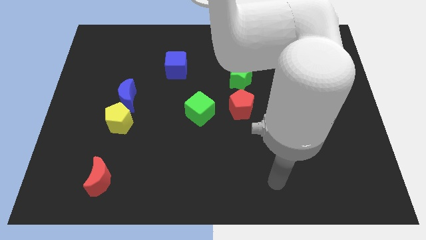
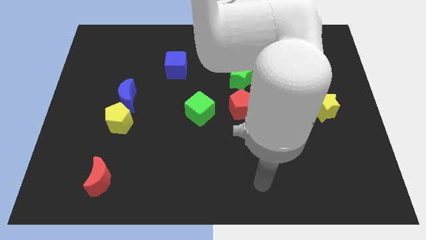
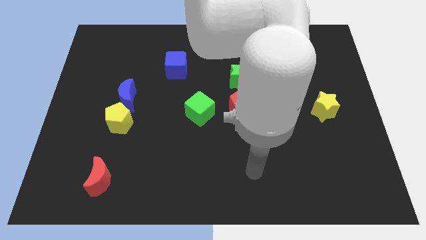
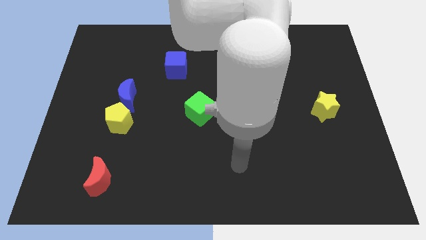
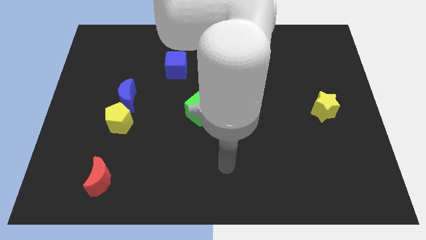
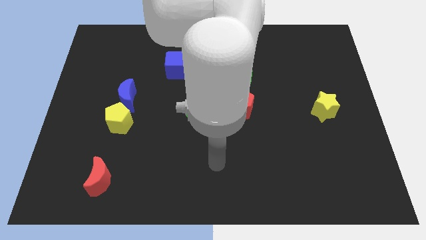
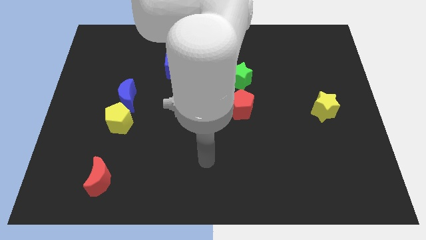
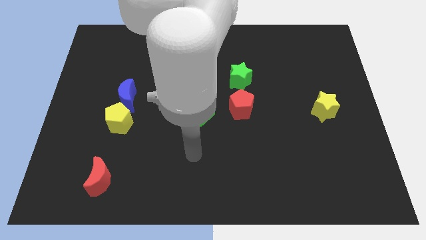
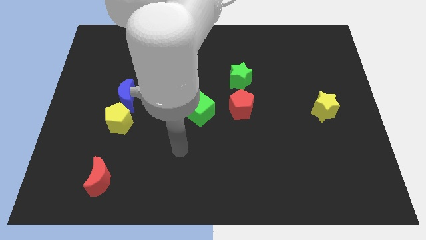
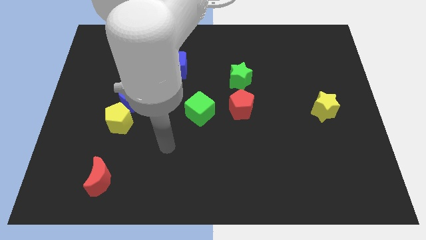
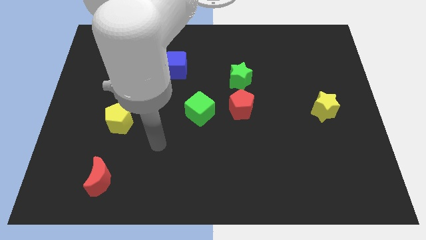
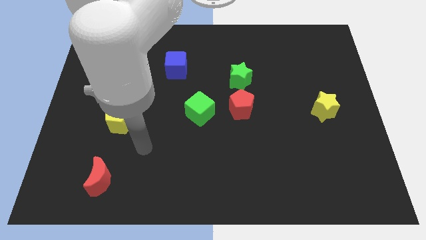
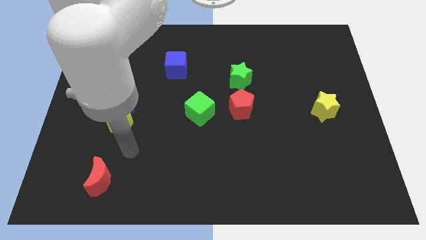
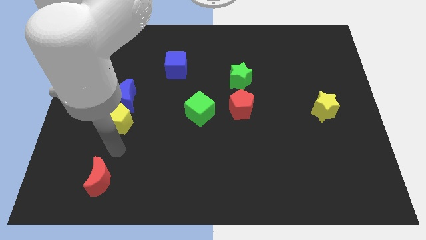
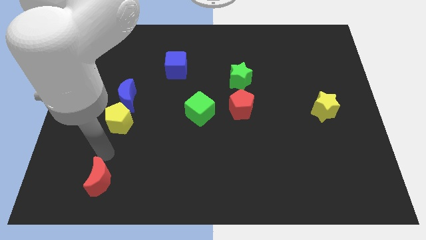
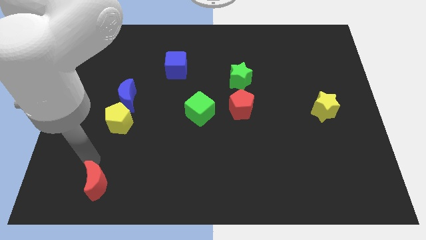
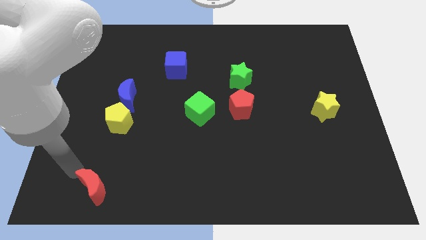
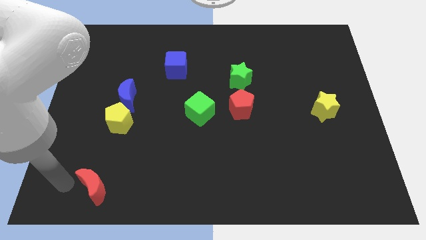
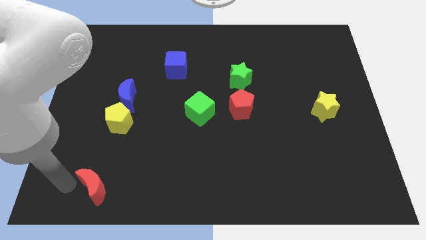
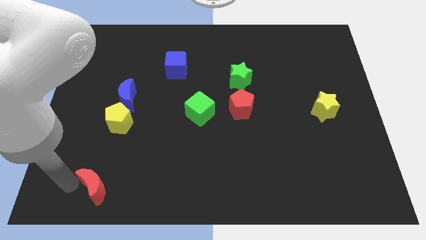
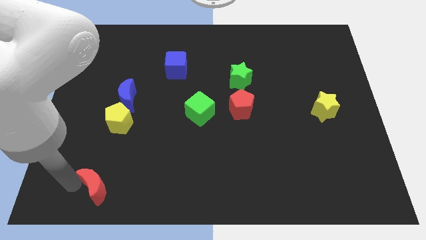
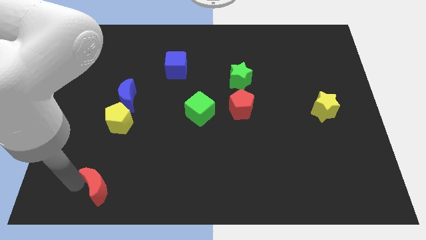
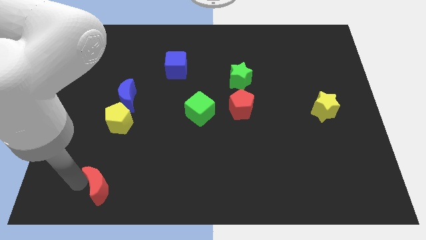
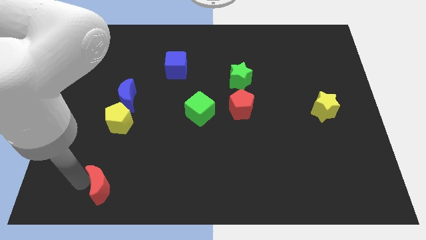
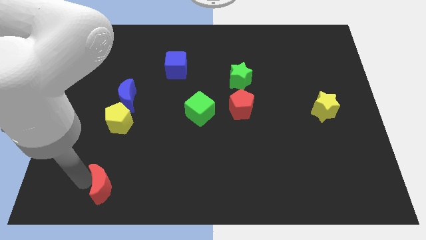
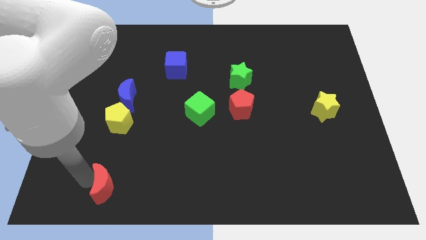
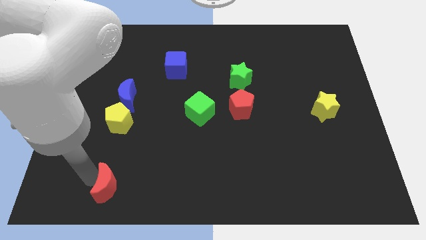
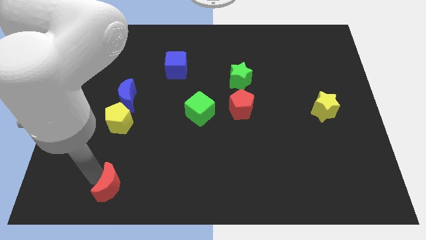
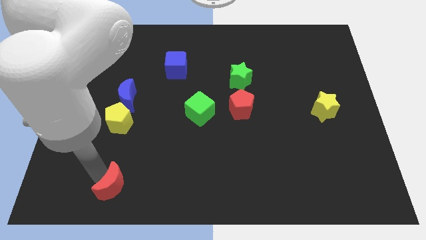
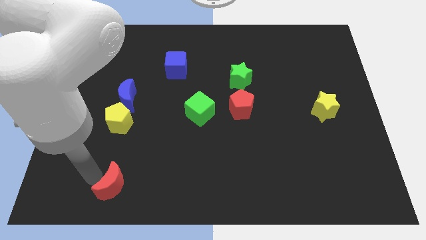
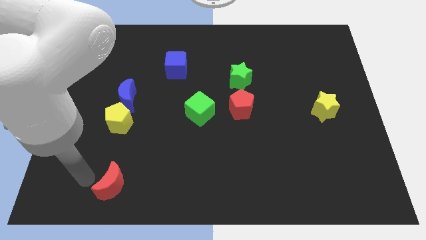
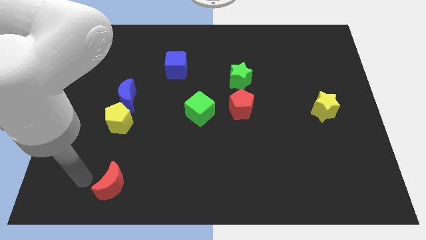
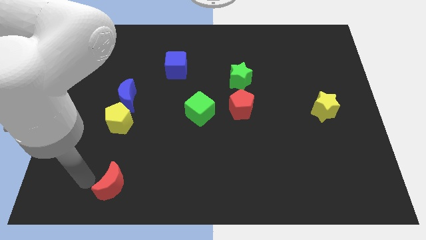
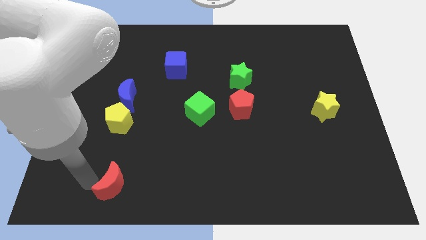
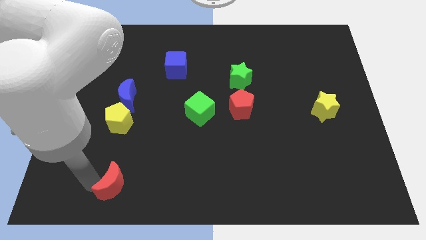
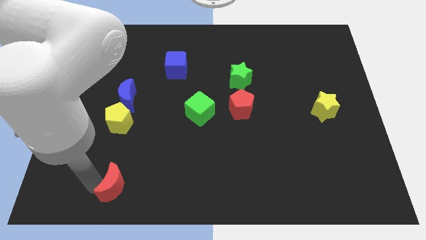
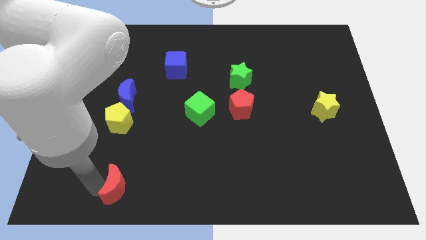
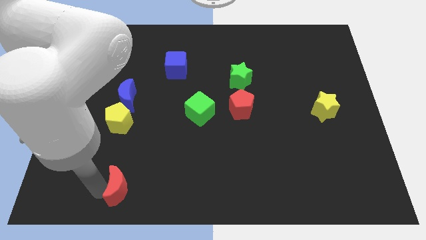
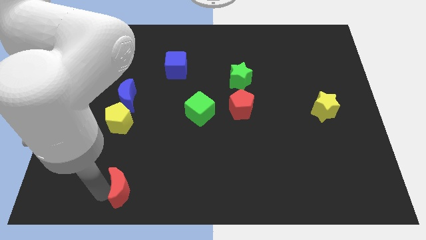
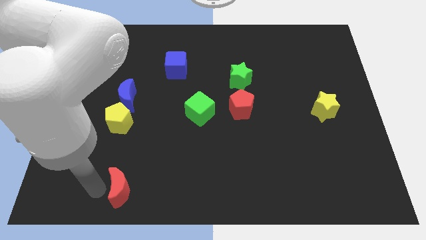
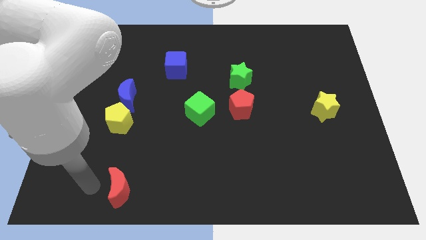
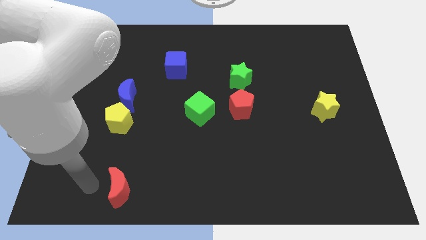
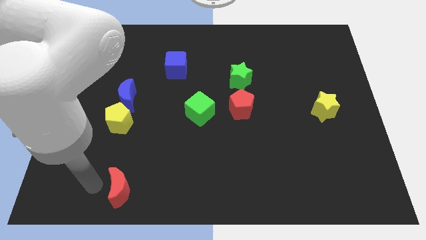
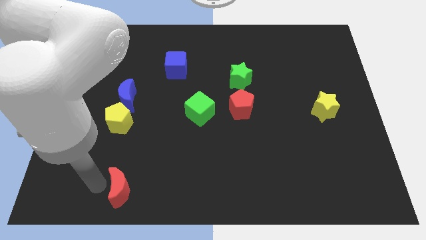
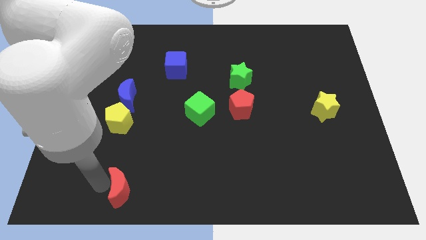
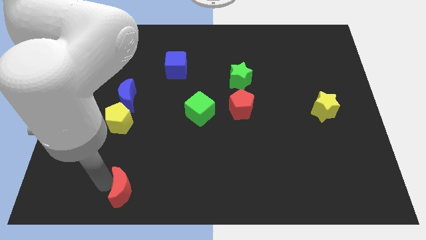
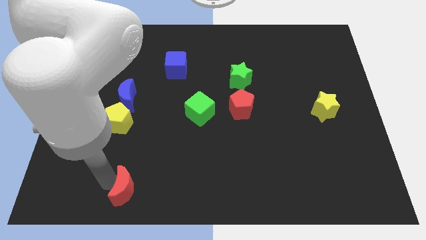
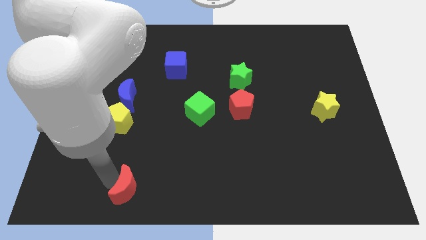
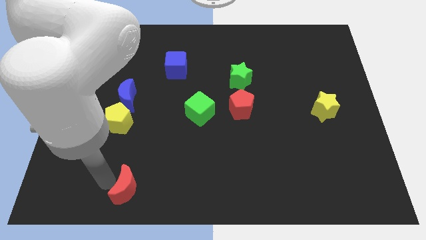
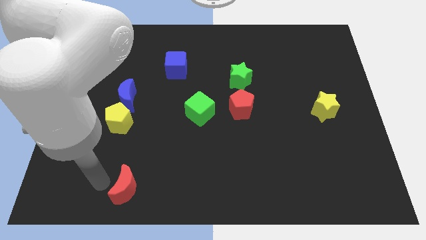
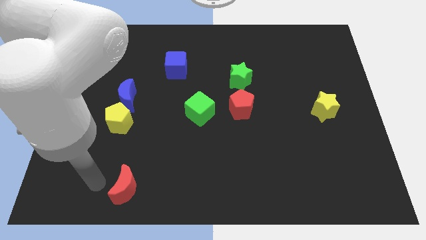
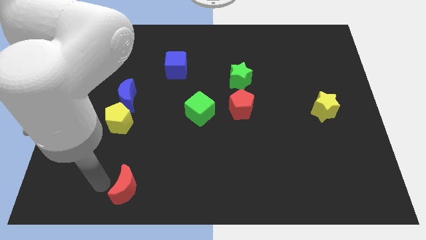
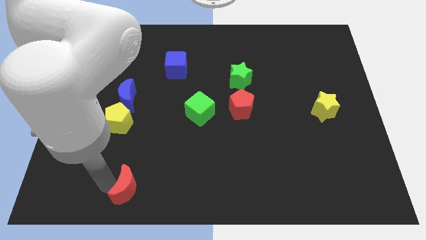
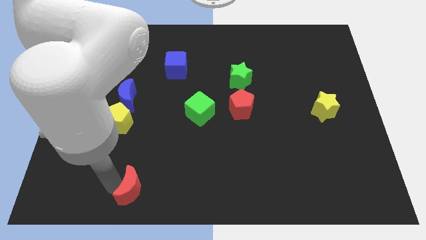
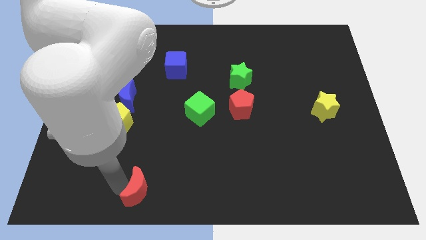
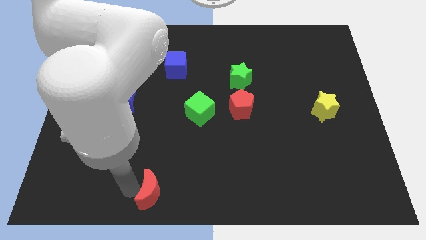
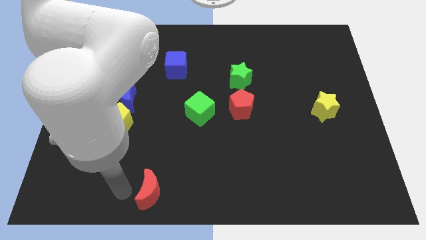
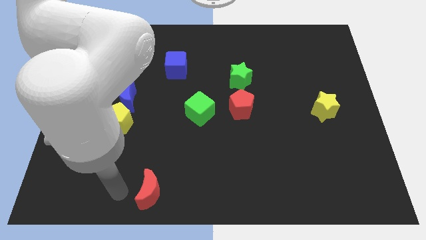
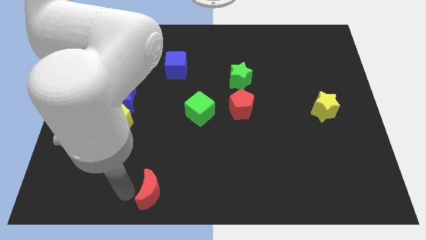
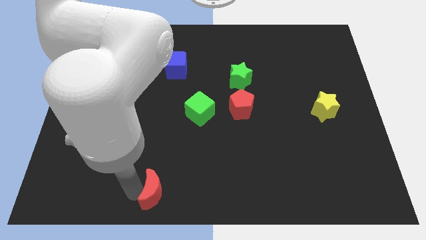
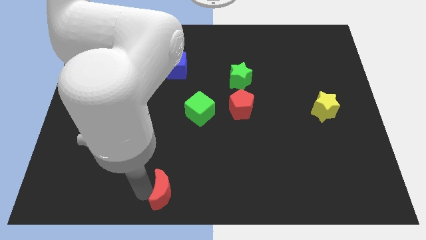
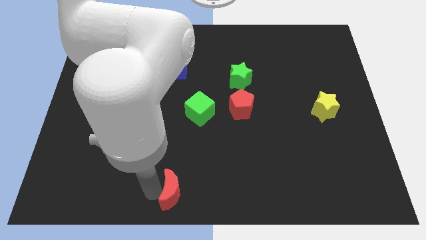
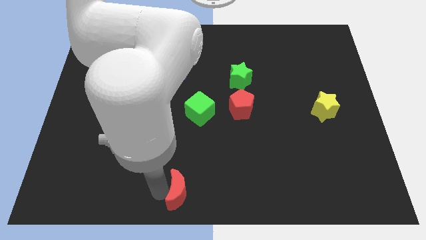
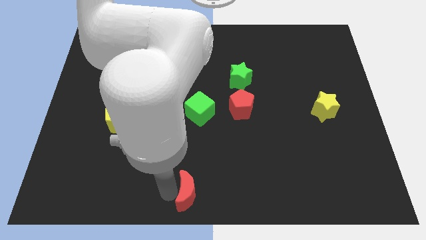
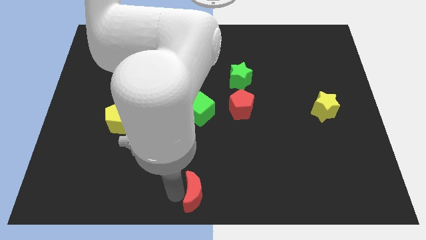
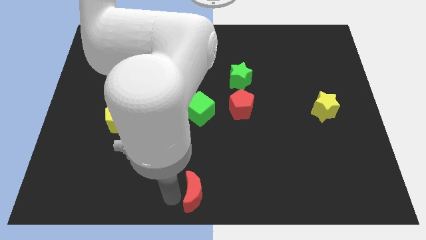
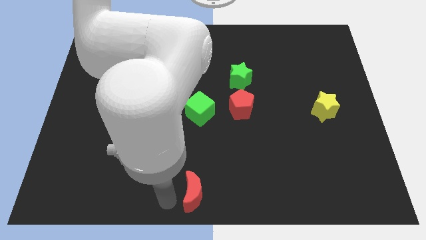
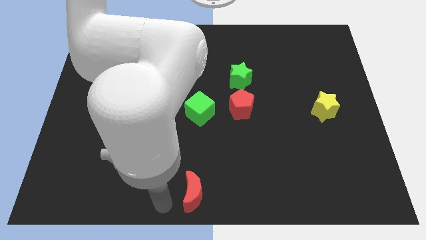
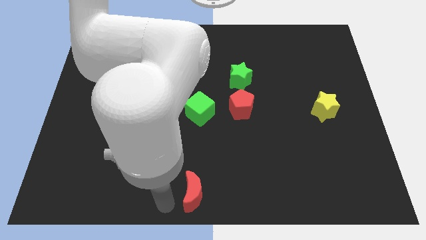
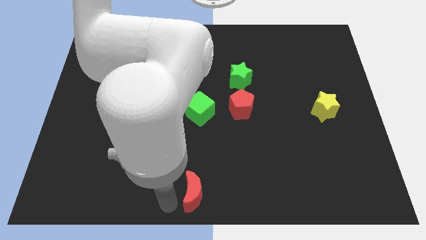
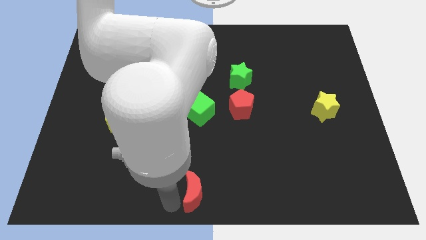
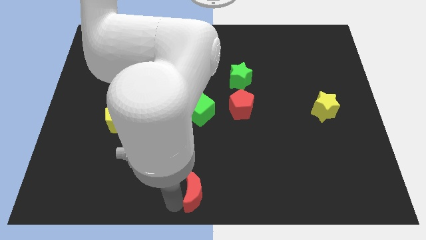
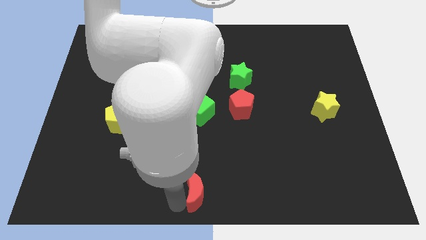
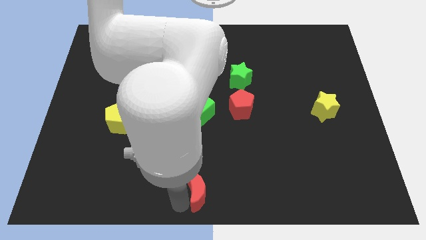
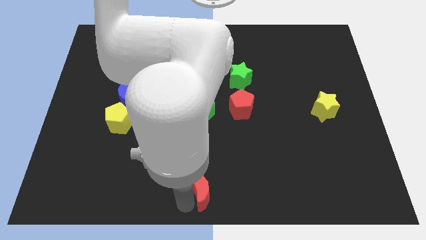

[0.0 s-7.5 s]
push the red moon right

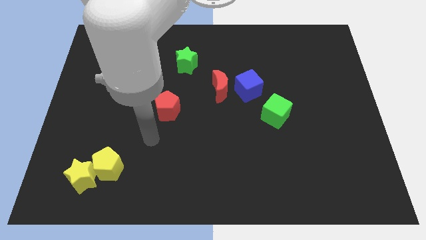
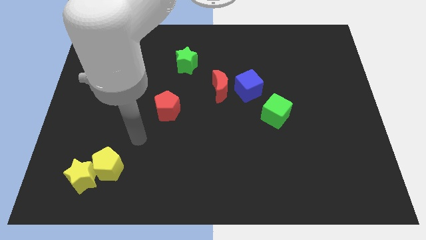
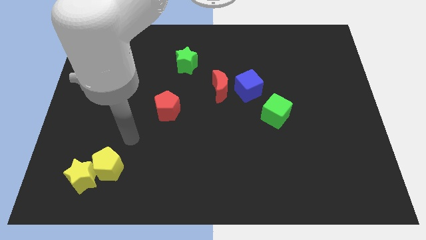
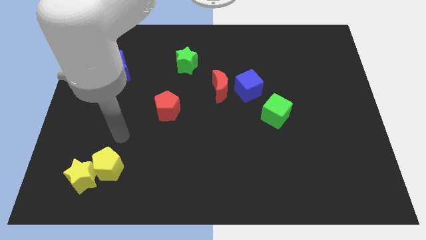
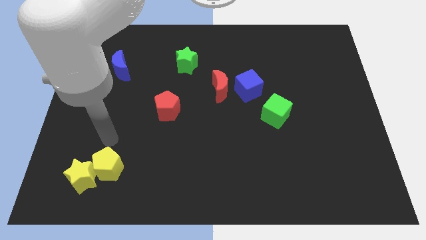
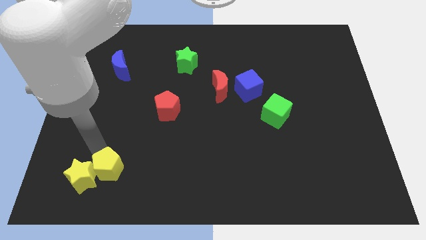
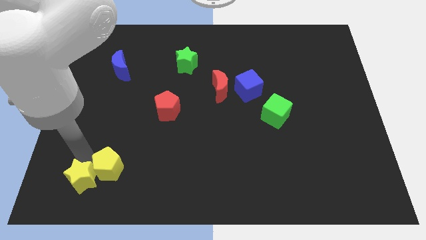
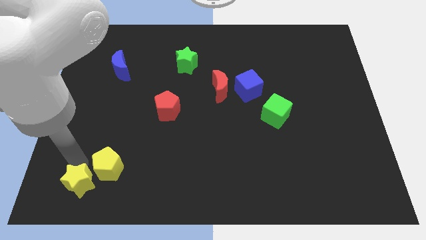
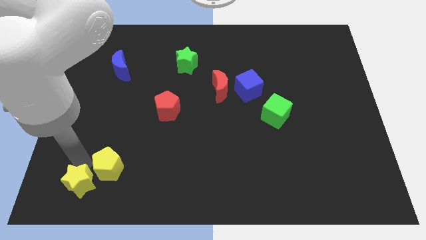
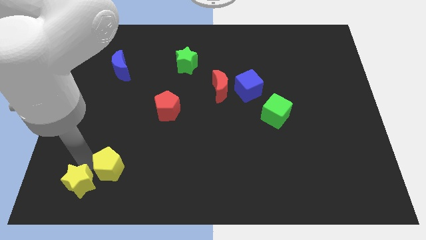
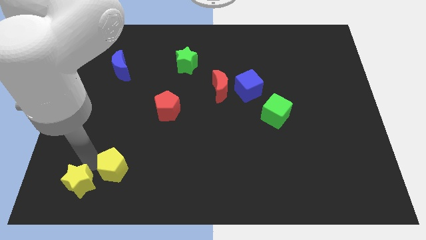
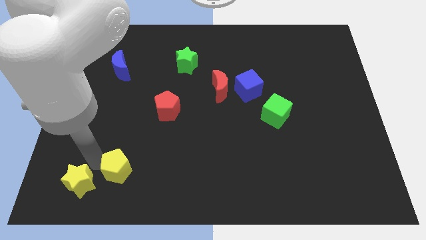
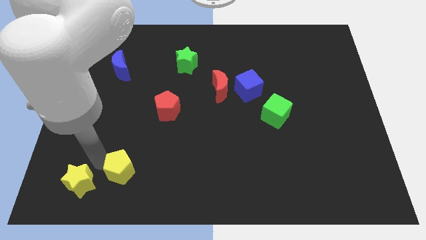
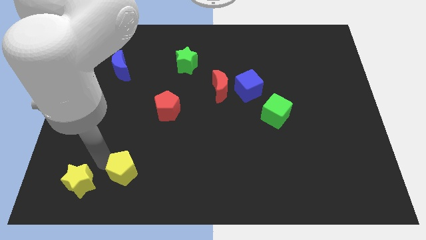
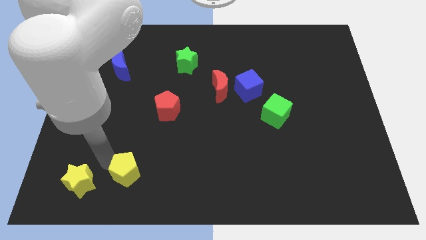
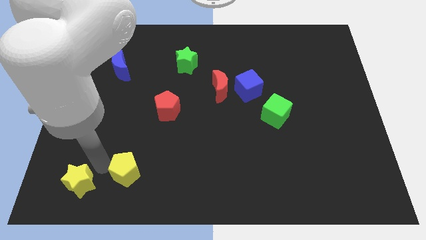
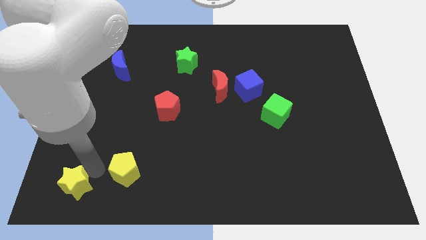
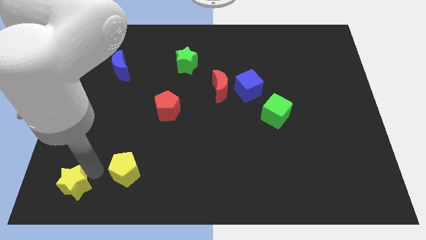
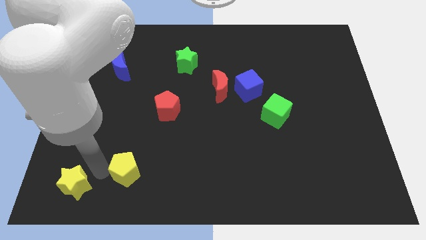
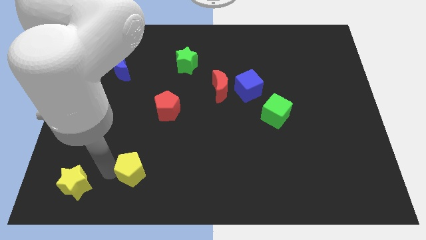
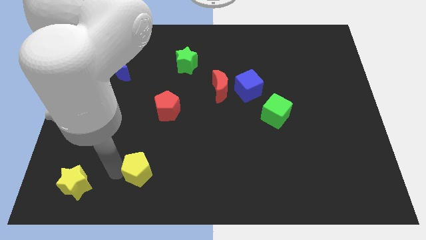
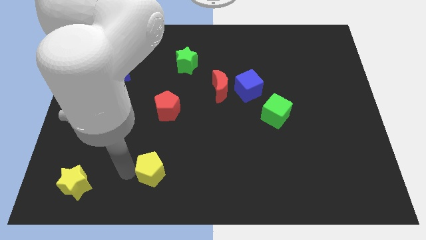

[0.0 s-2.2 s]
push the yellow pentagon to the right a bit
